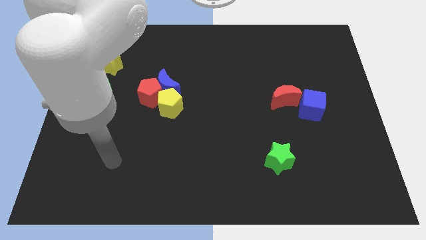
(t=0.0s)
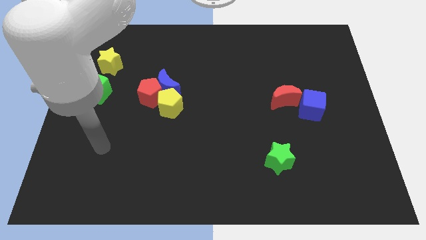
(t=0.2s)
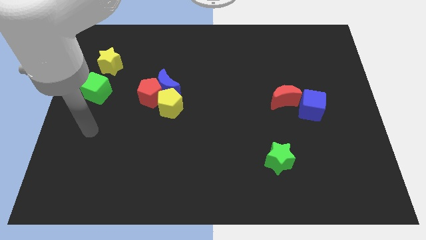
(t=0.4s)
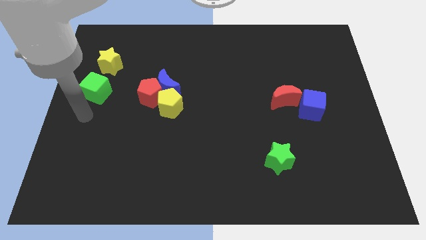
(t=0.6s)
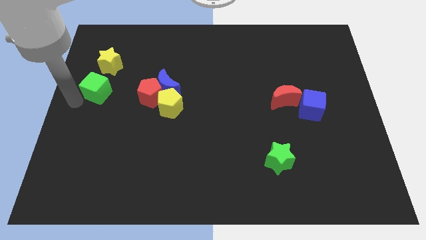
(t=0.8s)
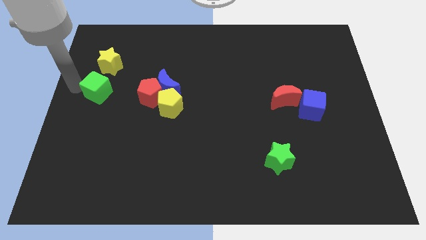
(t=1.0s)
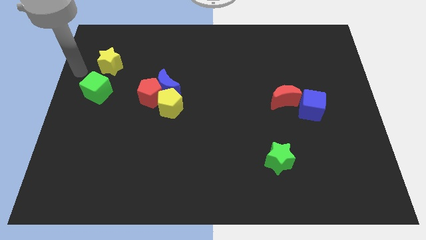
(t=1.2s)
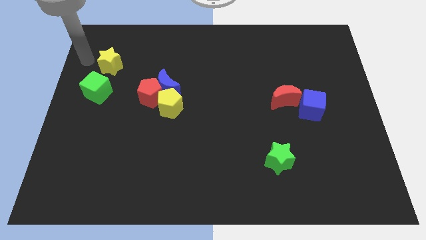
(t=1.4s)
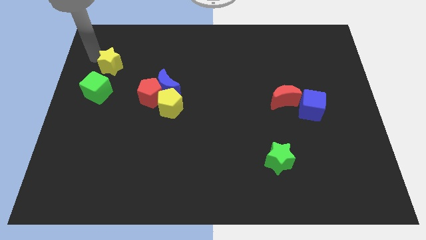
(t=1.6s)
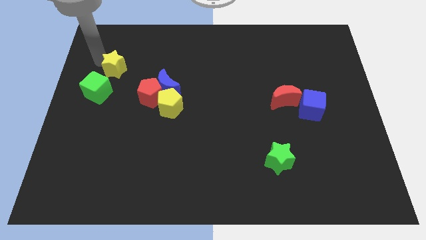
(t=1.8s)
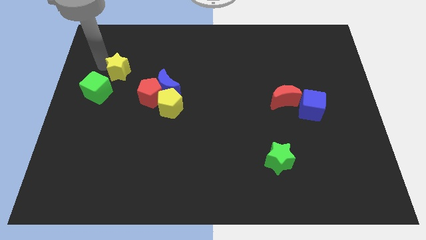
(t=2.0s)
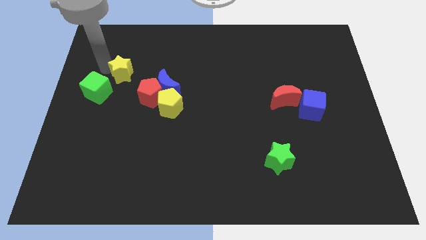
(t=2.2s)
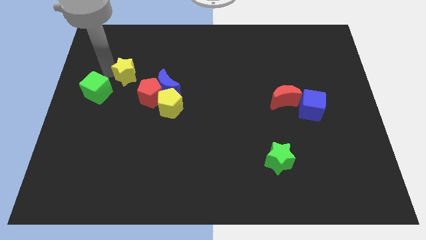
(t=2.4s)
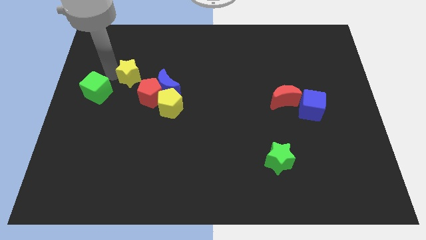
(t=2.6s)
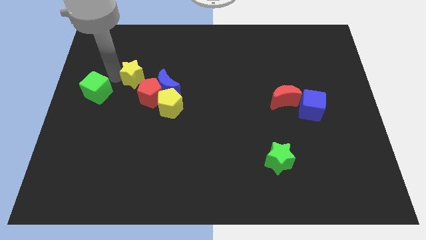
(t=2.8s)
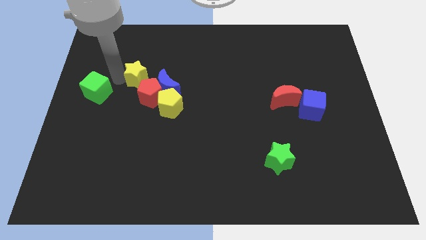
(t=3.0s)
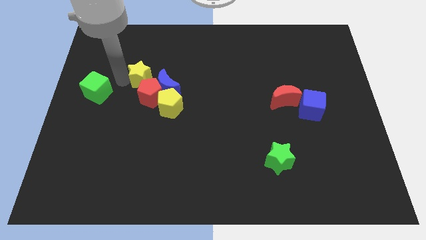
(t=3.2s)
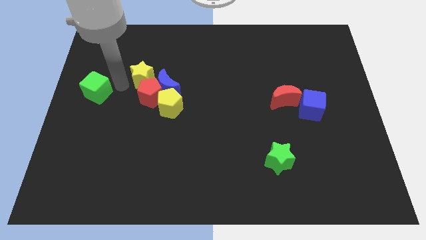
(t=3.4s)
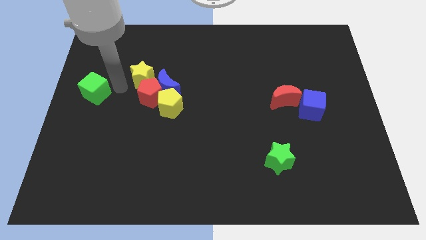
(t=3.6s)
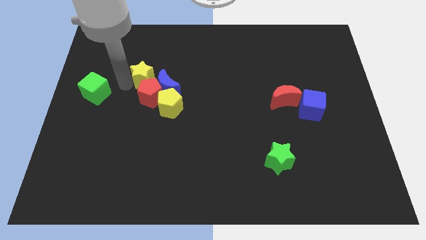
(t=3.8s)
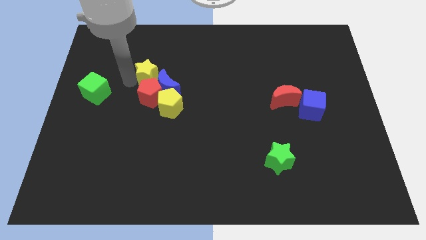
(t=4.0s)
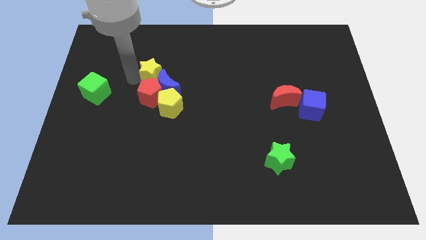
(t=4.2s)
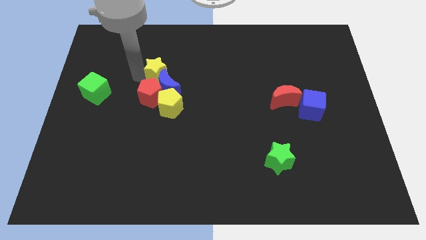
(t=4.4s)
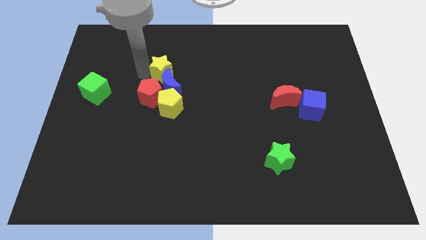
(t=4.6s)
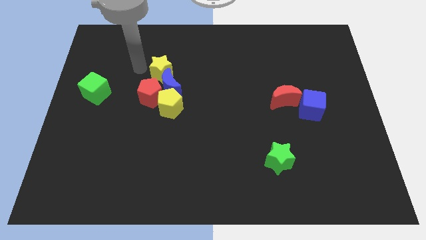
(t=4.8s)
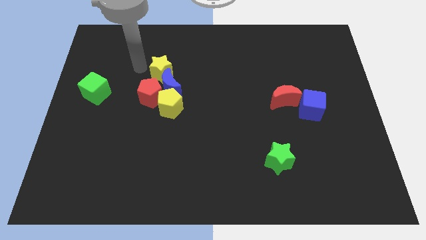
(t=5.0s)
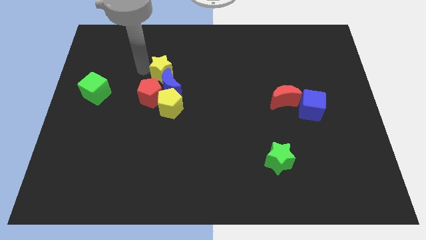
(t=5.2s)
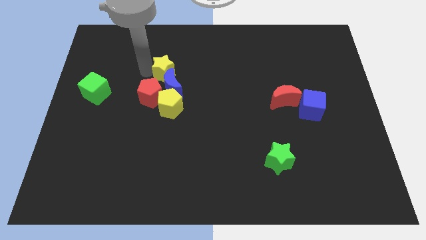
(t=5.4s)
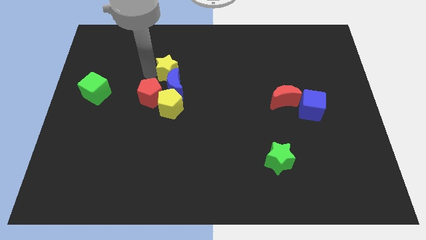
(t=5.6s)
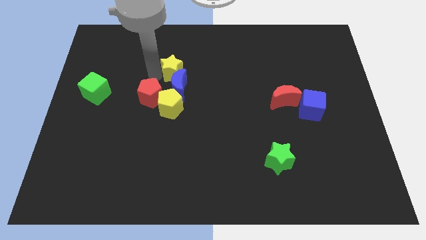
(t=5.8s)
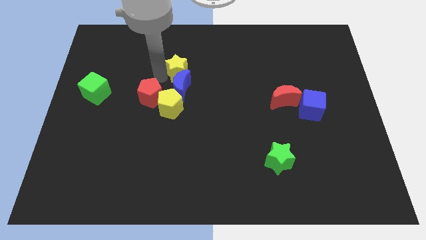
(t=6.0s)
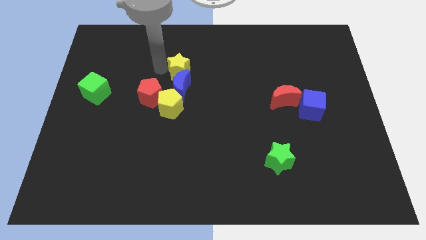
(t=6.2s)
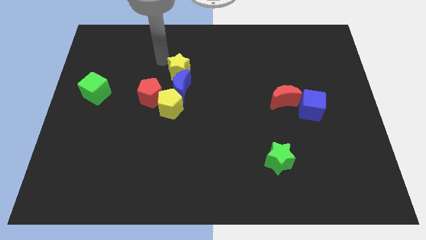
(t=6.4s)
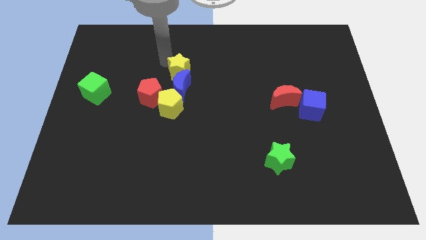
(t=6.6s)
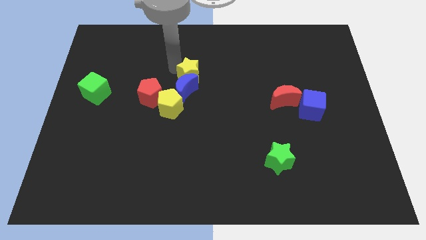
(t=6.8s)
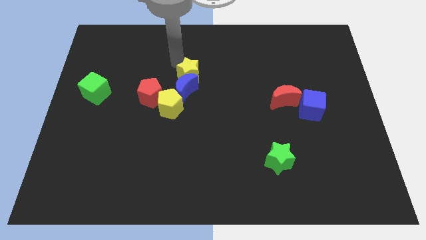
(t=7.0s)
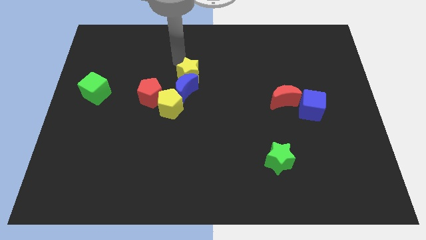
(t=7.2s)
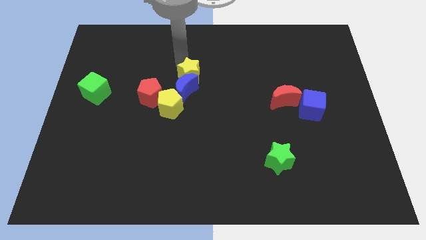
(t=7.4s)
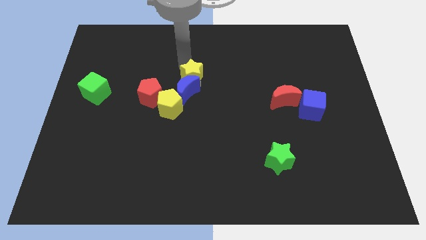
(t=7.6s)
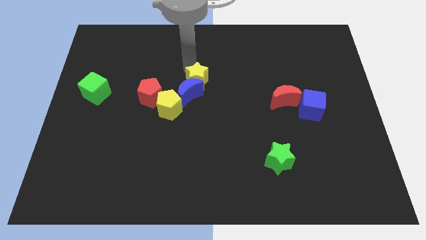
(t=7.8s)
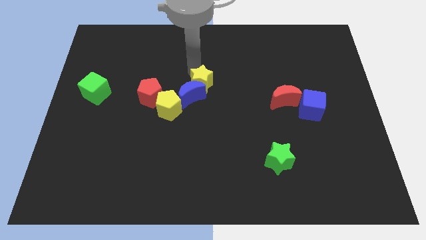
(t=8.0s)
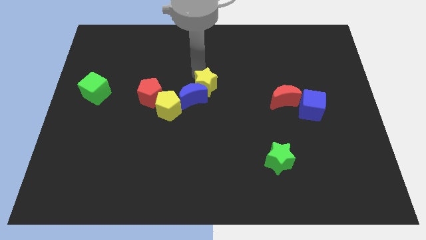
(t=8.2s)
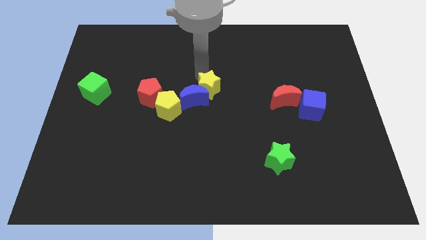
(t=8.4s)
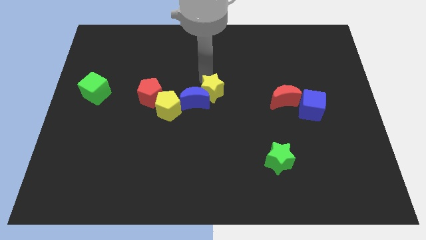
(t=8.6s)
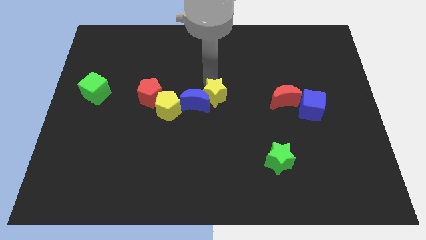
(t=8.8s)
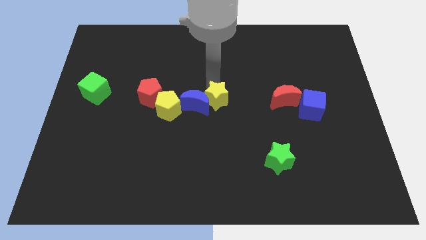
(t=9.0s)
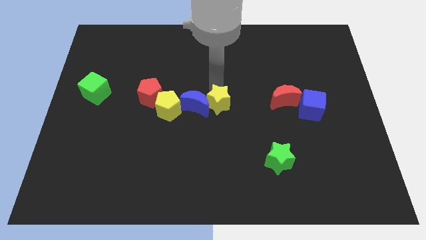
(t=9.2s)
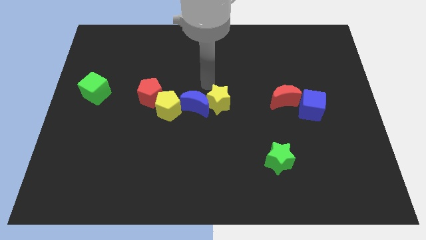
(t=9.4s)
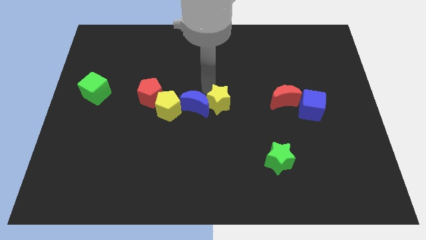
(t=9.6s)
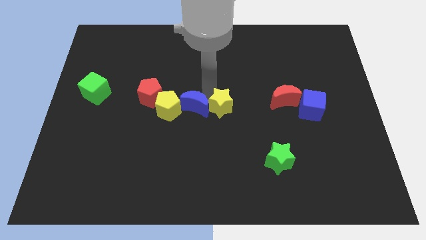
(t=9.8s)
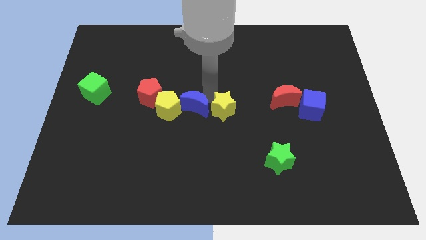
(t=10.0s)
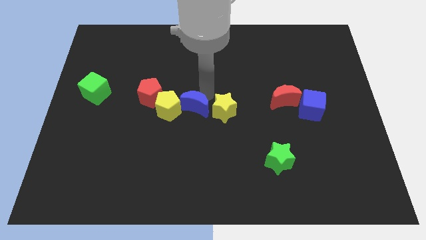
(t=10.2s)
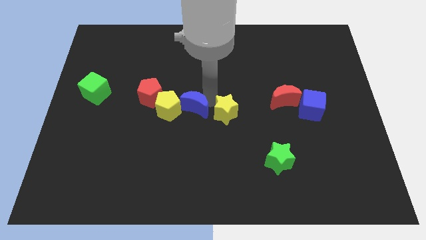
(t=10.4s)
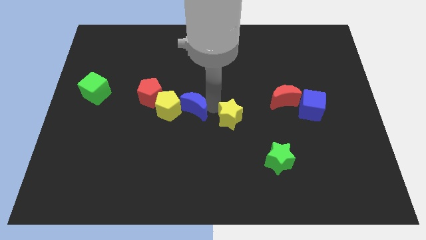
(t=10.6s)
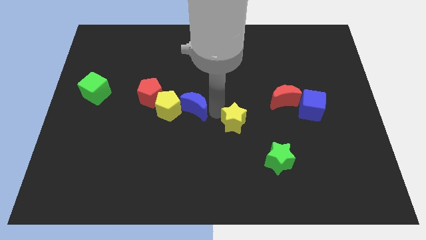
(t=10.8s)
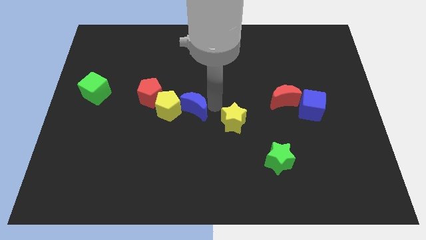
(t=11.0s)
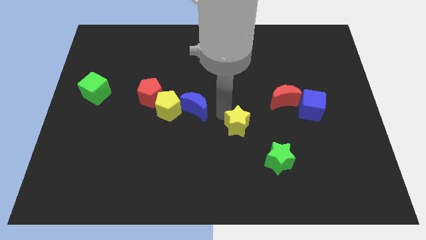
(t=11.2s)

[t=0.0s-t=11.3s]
push the yellow star to the top left side of the green star

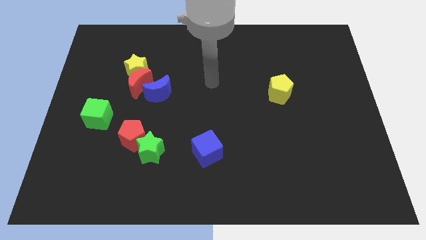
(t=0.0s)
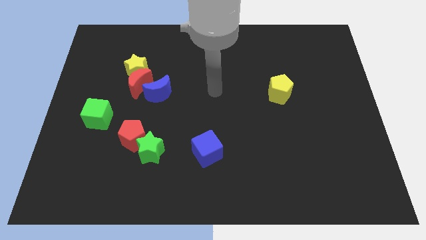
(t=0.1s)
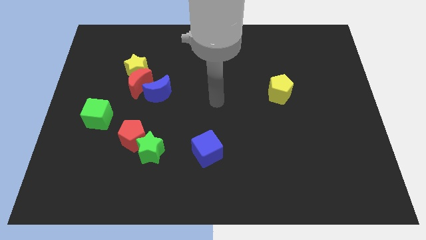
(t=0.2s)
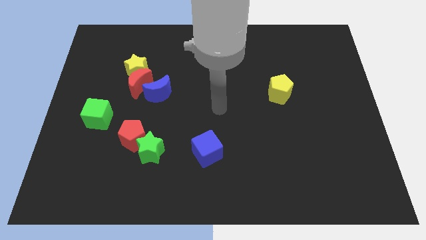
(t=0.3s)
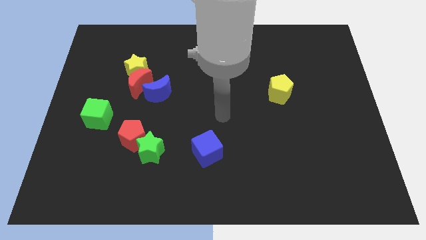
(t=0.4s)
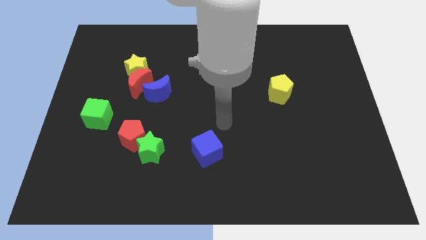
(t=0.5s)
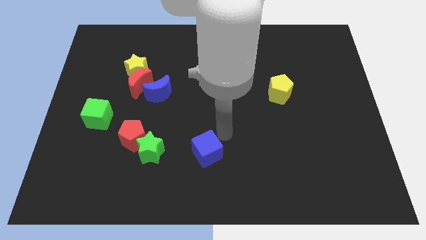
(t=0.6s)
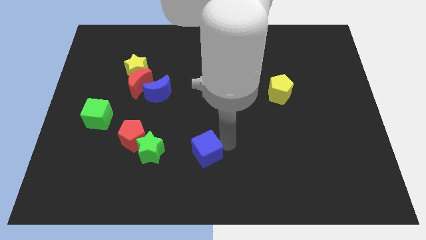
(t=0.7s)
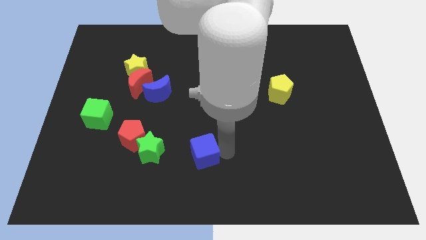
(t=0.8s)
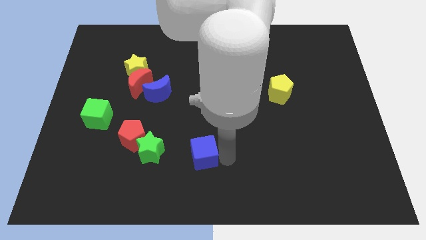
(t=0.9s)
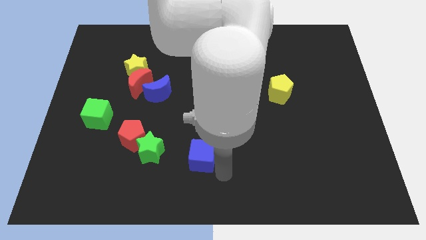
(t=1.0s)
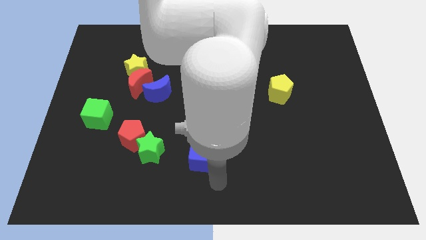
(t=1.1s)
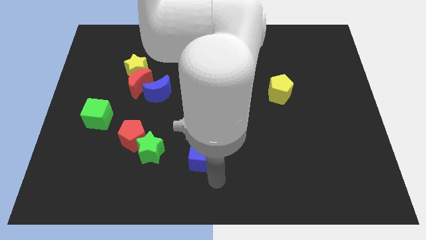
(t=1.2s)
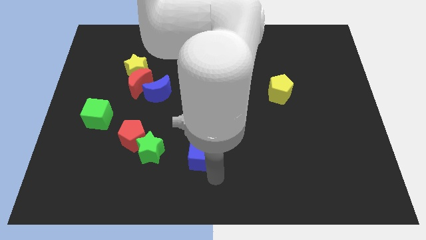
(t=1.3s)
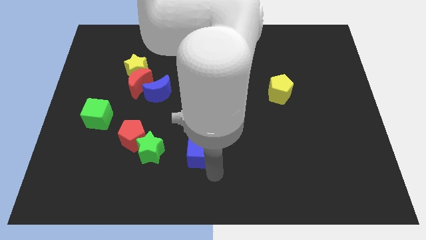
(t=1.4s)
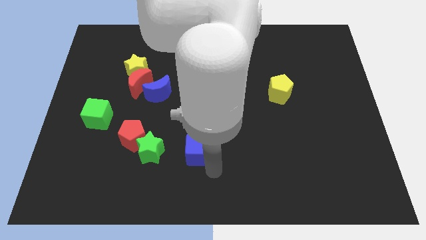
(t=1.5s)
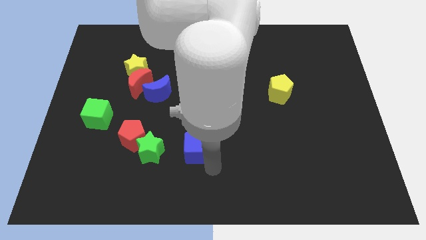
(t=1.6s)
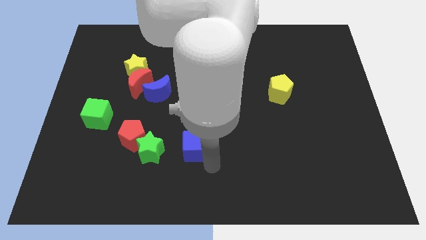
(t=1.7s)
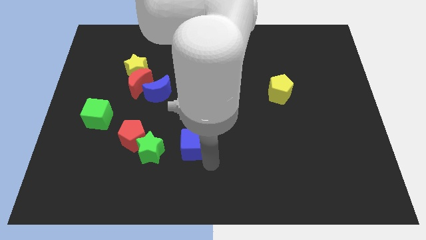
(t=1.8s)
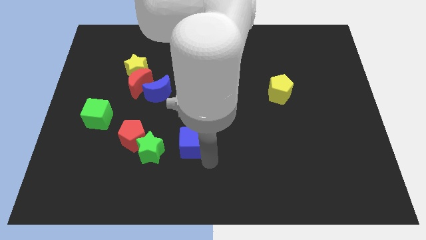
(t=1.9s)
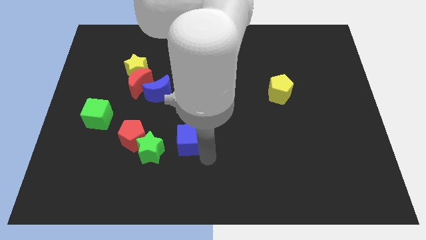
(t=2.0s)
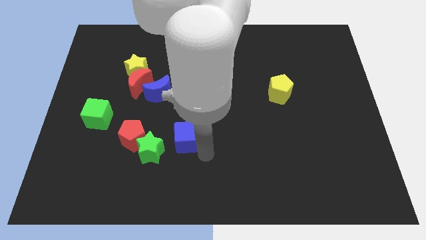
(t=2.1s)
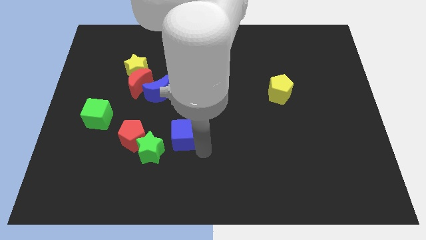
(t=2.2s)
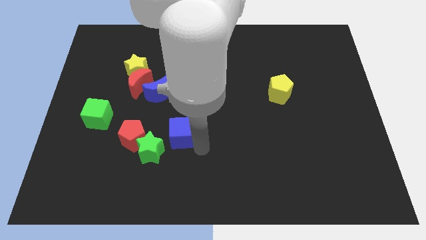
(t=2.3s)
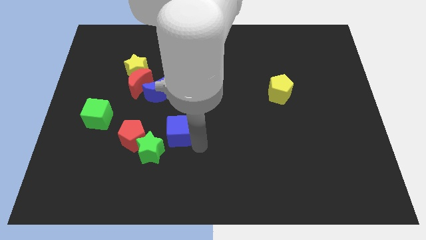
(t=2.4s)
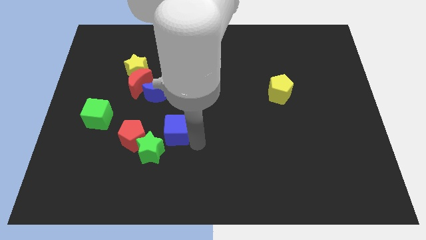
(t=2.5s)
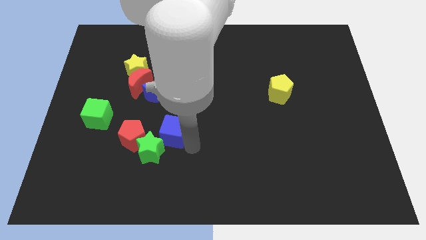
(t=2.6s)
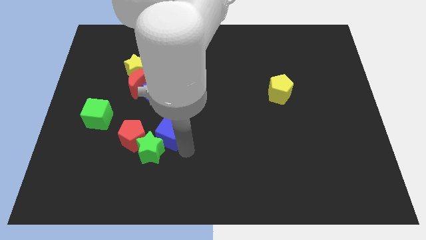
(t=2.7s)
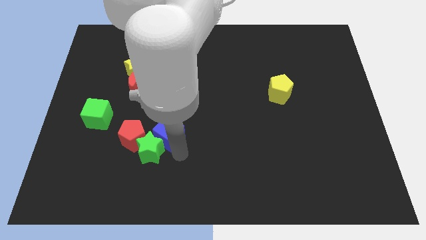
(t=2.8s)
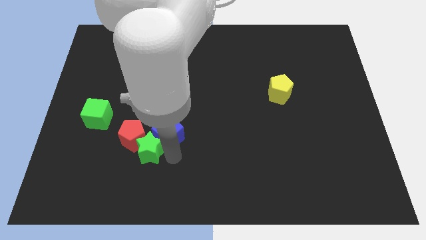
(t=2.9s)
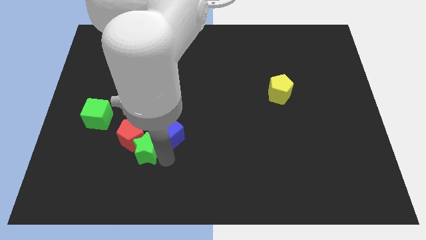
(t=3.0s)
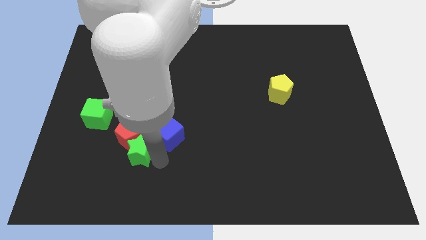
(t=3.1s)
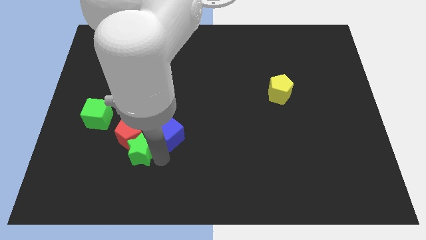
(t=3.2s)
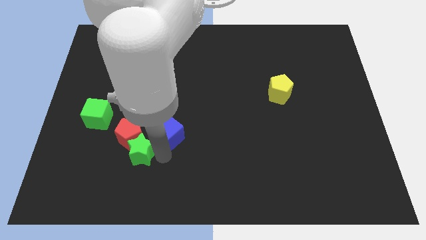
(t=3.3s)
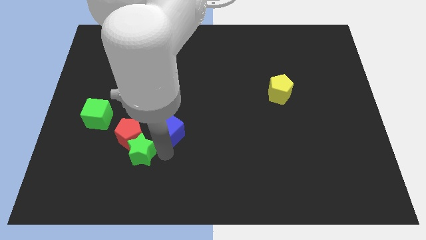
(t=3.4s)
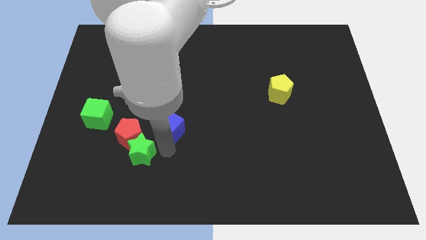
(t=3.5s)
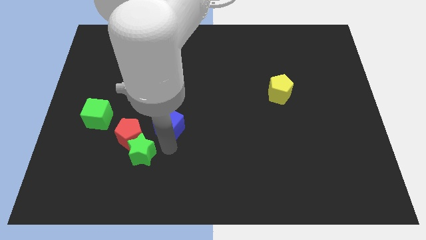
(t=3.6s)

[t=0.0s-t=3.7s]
slide the blue cube diagonally down and to the right of the blue moon
